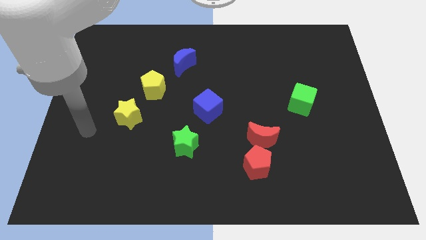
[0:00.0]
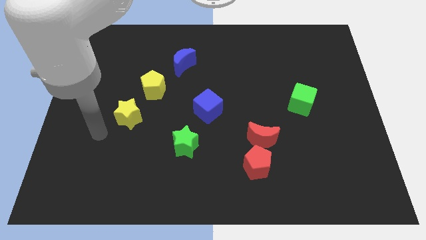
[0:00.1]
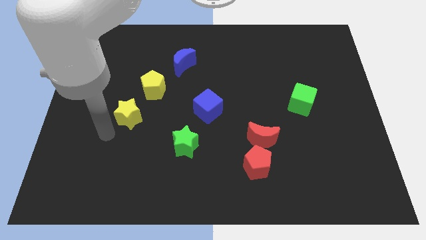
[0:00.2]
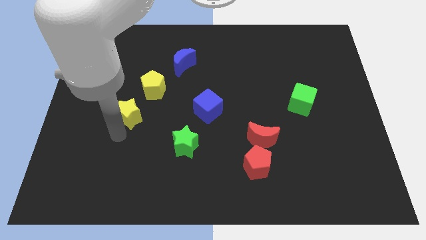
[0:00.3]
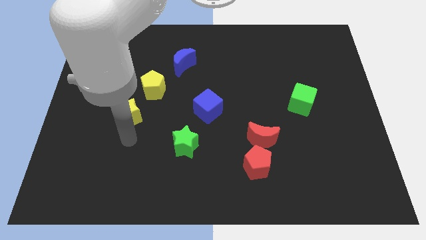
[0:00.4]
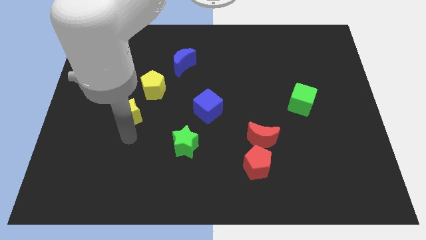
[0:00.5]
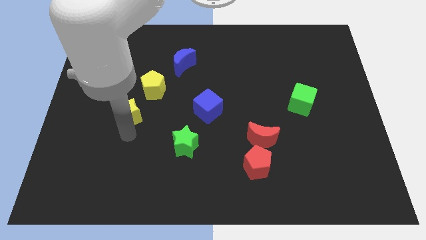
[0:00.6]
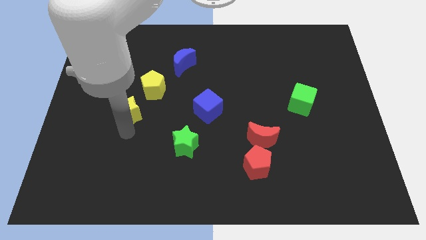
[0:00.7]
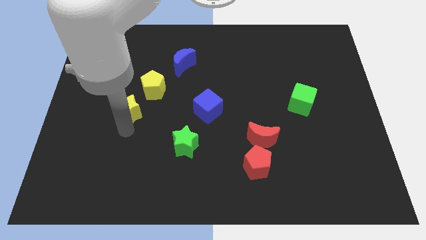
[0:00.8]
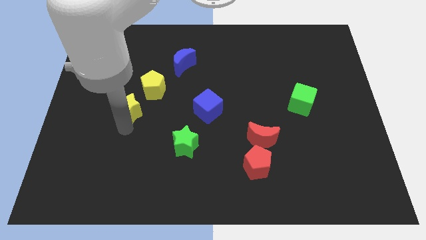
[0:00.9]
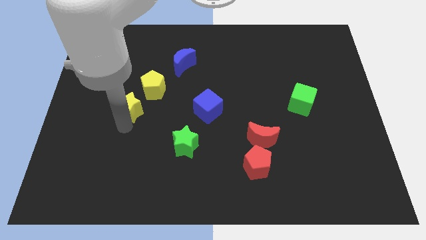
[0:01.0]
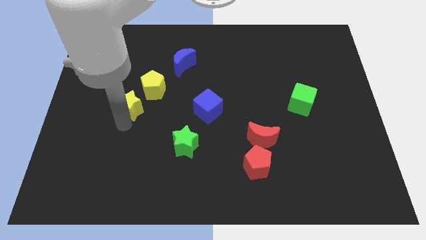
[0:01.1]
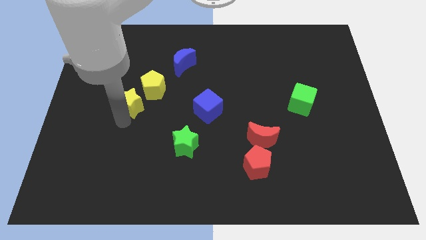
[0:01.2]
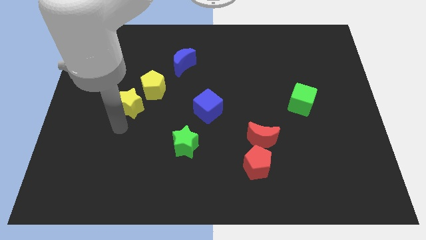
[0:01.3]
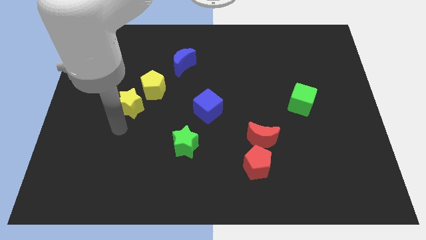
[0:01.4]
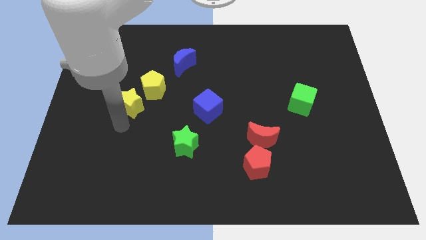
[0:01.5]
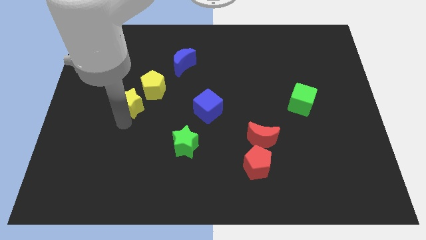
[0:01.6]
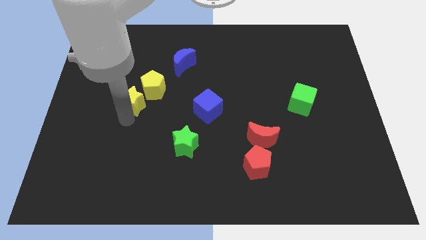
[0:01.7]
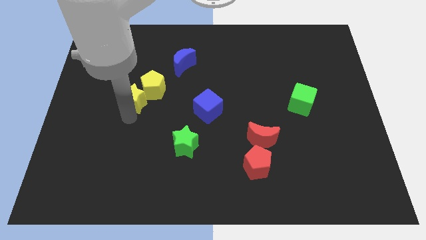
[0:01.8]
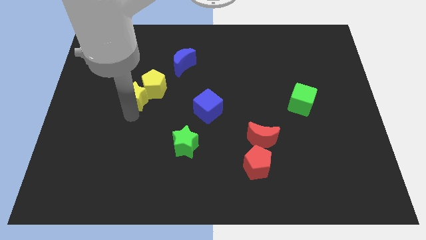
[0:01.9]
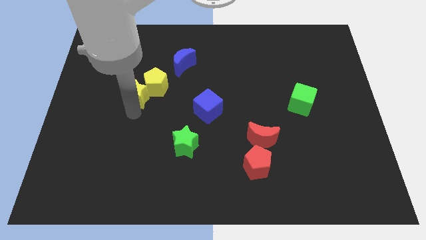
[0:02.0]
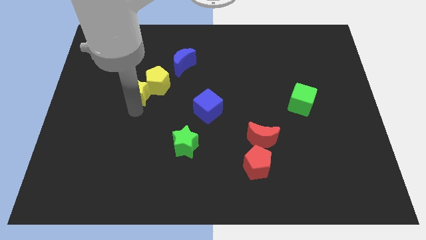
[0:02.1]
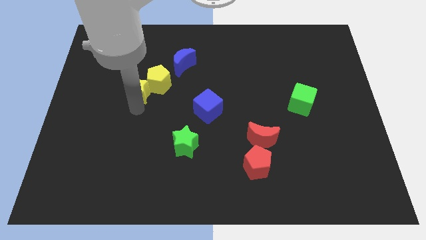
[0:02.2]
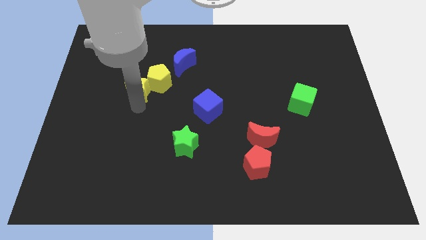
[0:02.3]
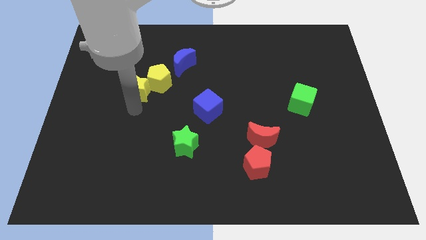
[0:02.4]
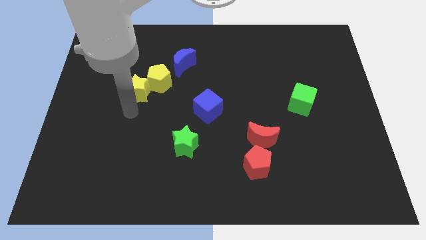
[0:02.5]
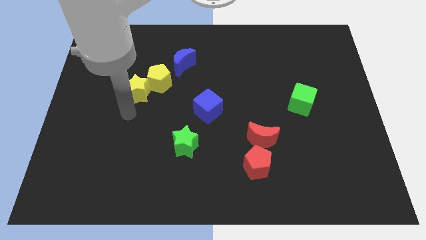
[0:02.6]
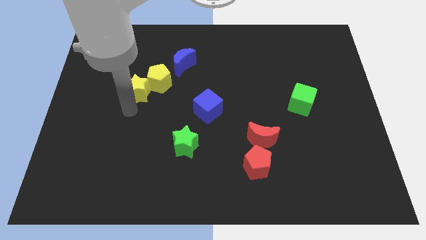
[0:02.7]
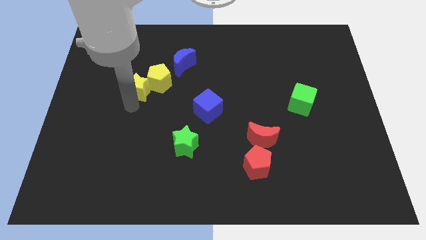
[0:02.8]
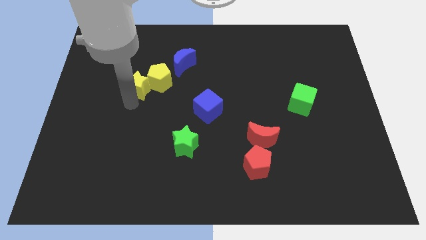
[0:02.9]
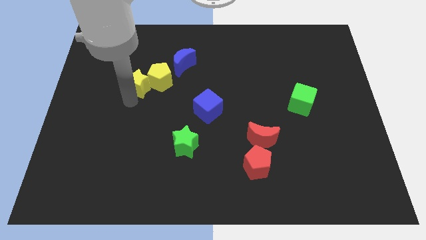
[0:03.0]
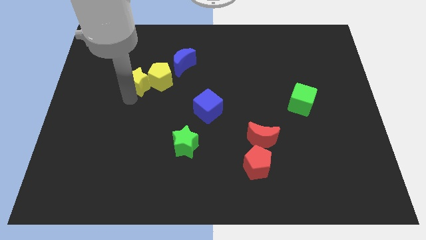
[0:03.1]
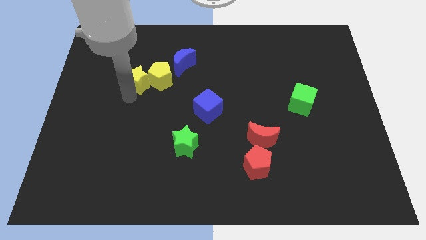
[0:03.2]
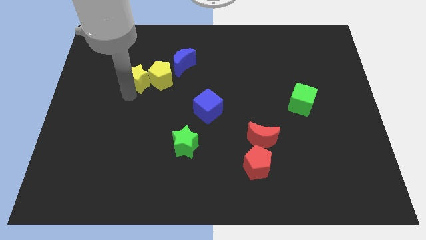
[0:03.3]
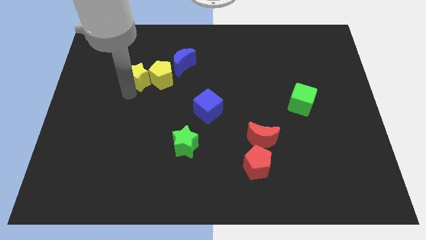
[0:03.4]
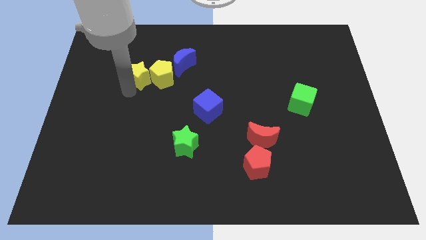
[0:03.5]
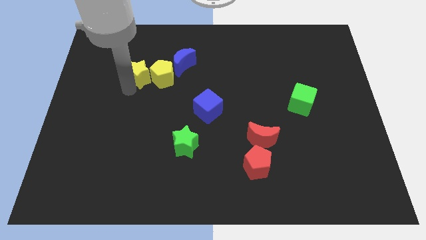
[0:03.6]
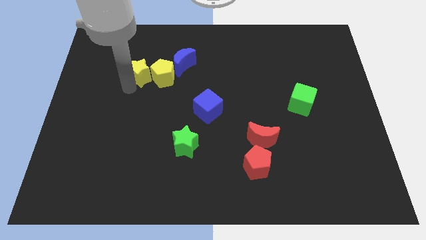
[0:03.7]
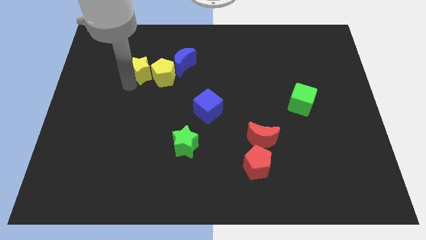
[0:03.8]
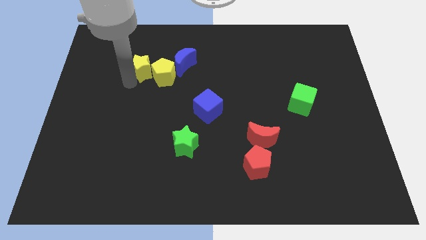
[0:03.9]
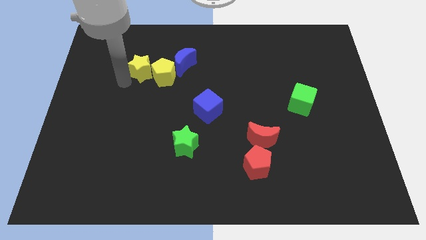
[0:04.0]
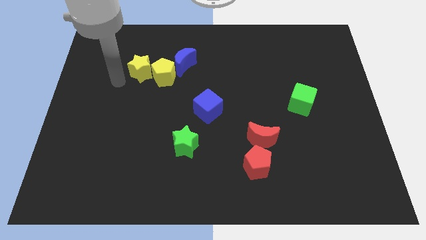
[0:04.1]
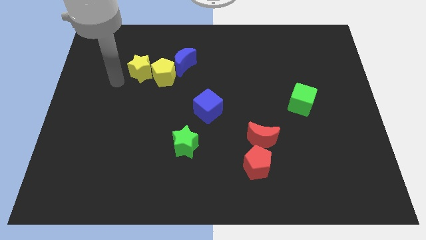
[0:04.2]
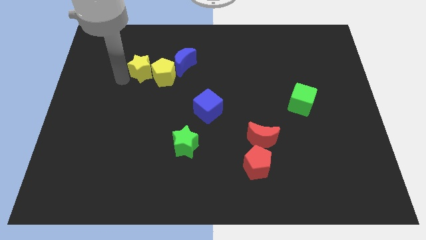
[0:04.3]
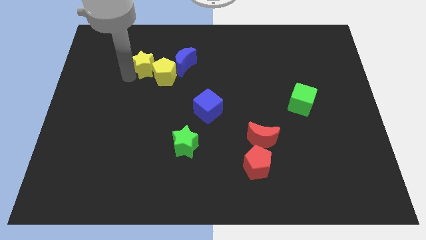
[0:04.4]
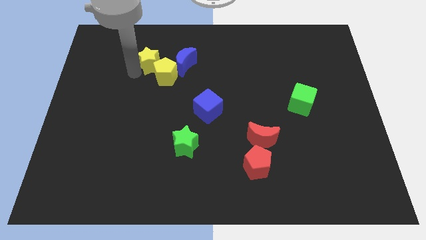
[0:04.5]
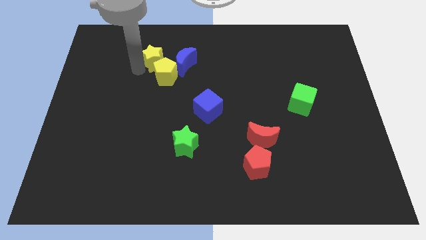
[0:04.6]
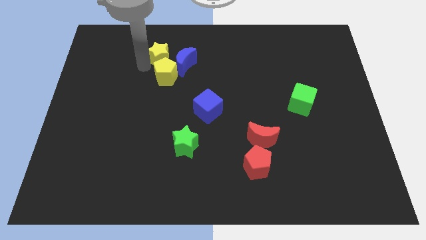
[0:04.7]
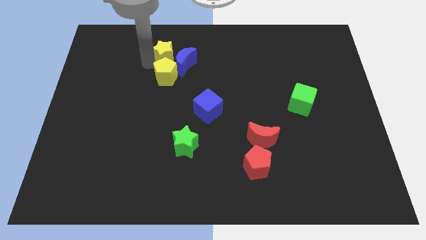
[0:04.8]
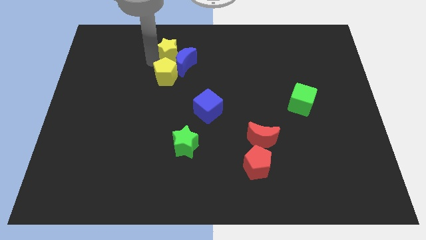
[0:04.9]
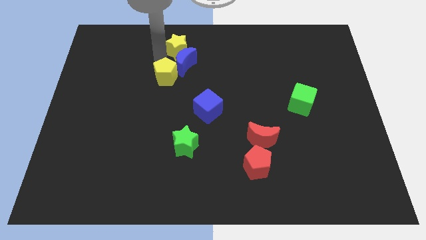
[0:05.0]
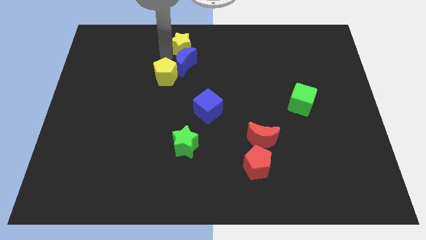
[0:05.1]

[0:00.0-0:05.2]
move the yellow star to the top side

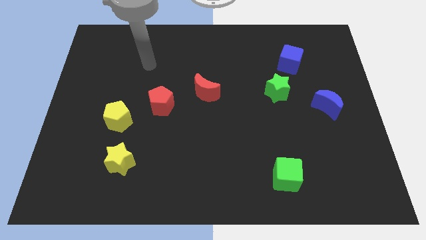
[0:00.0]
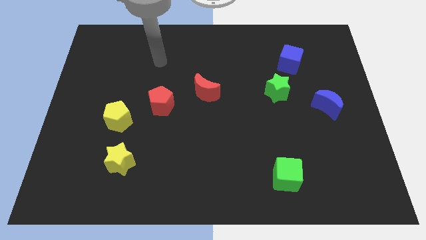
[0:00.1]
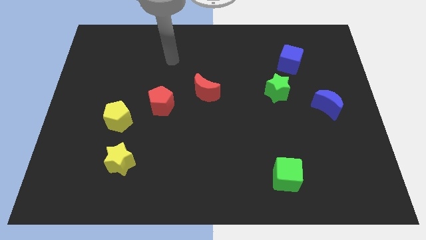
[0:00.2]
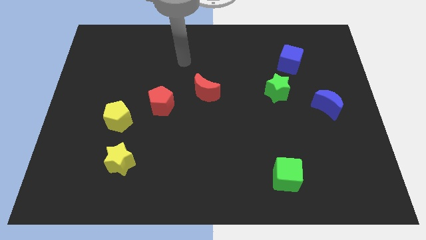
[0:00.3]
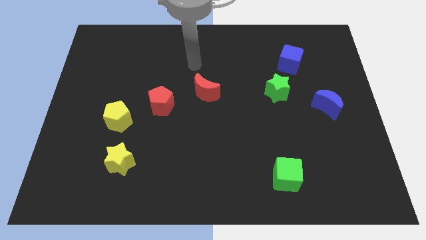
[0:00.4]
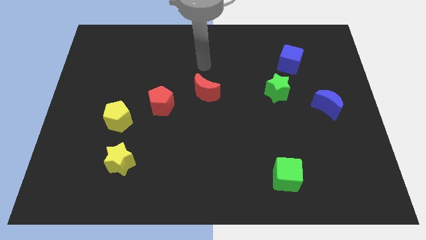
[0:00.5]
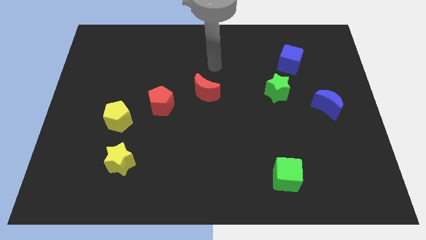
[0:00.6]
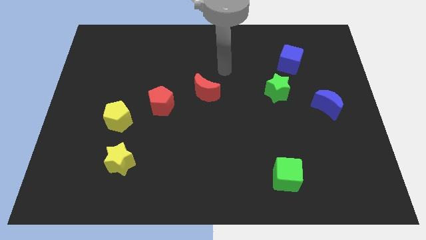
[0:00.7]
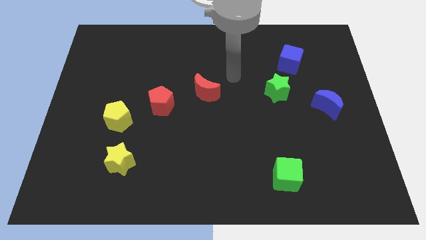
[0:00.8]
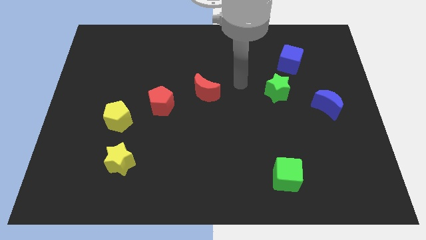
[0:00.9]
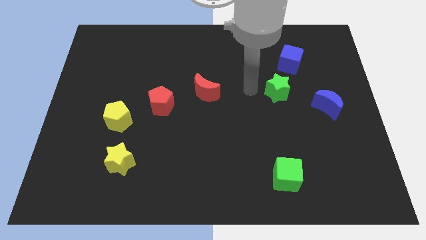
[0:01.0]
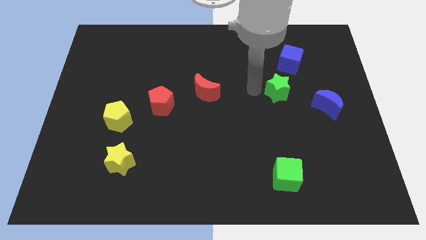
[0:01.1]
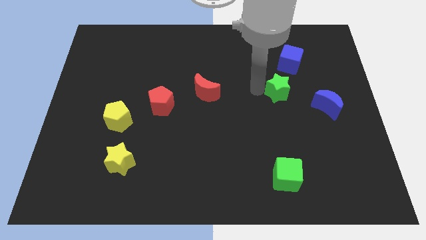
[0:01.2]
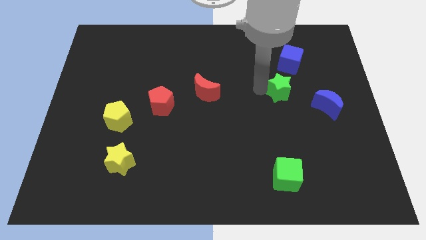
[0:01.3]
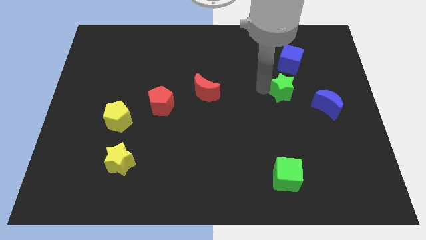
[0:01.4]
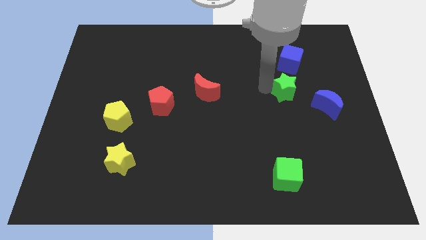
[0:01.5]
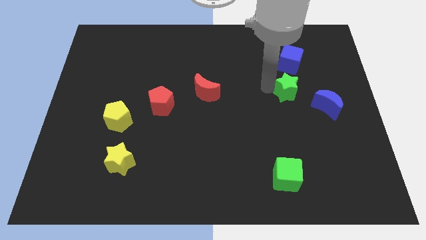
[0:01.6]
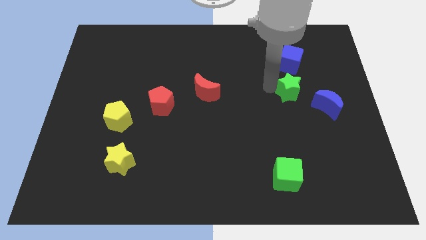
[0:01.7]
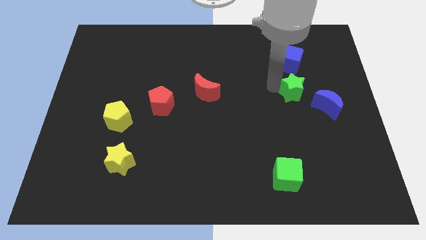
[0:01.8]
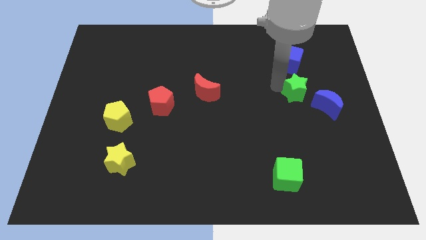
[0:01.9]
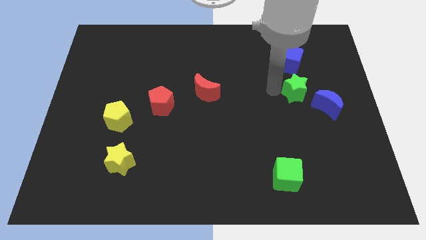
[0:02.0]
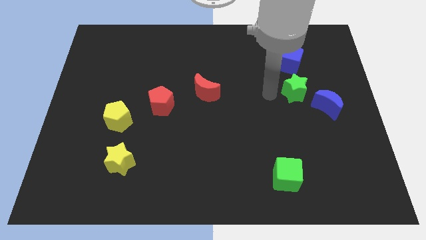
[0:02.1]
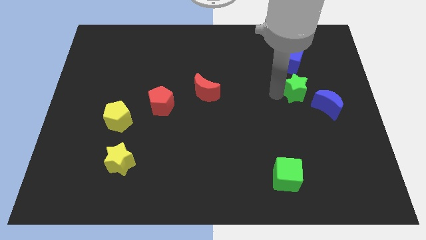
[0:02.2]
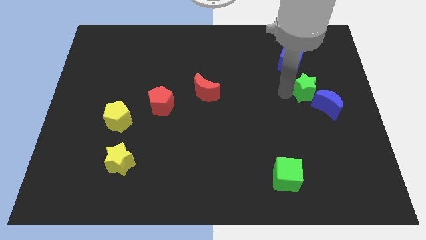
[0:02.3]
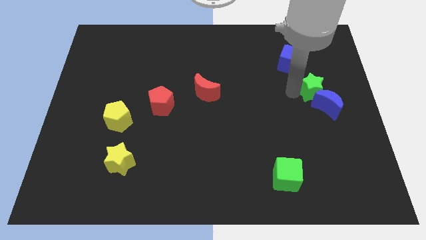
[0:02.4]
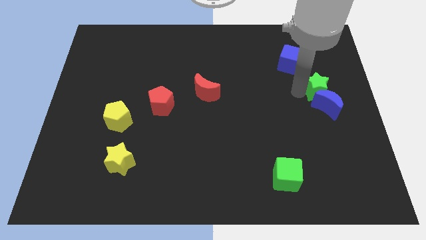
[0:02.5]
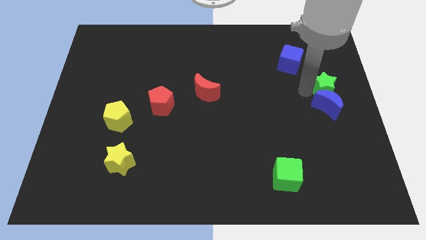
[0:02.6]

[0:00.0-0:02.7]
move the green star to the center right
